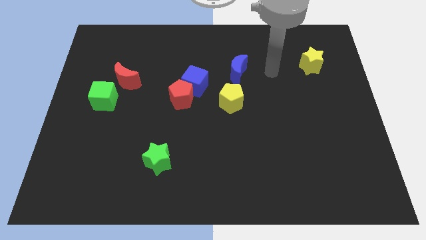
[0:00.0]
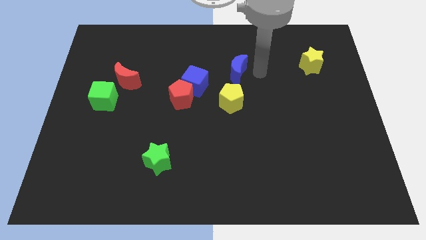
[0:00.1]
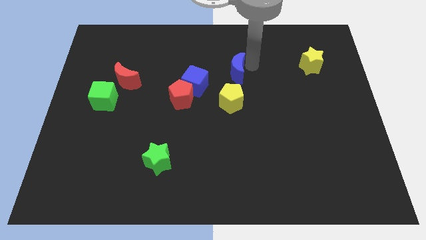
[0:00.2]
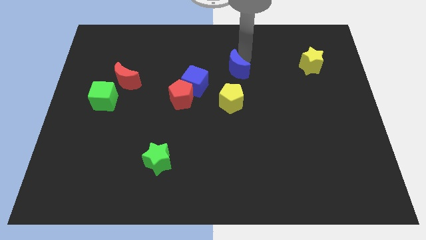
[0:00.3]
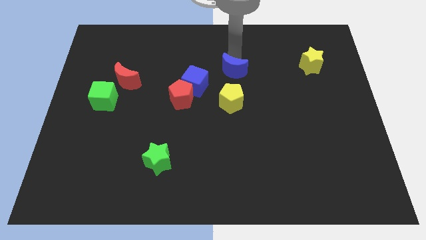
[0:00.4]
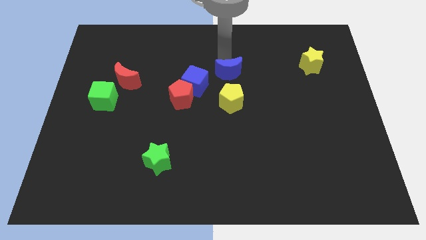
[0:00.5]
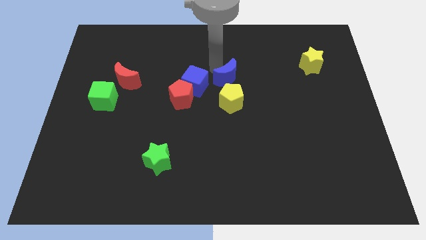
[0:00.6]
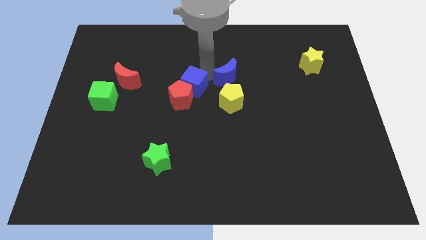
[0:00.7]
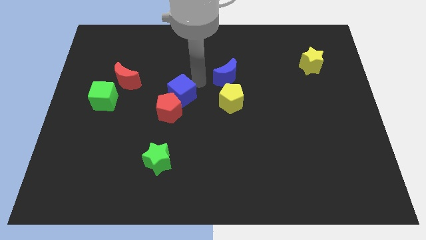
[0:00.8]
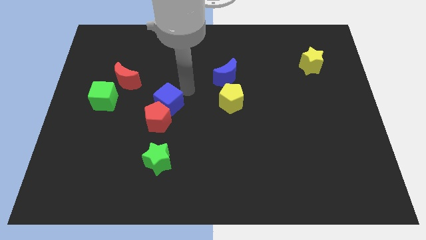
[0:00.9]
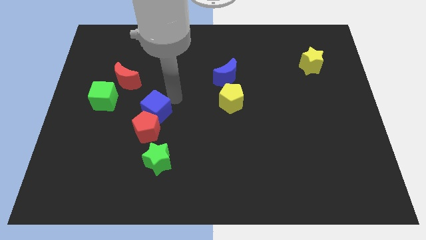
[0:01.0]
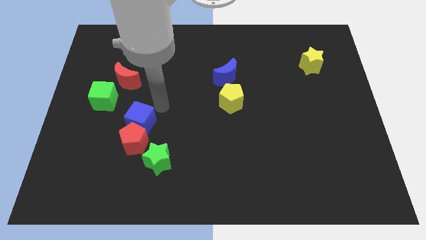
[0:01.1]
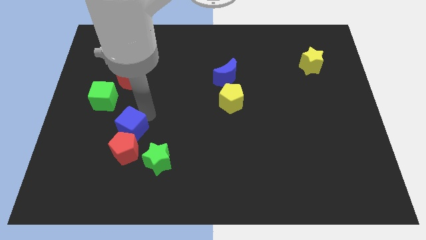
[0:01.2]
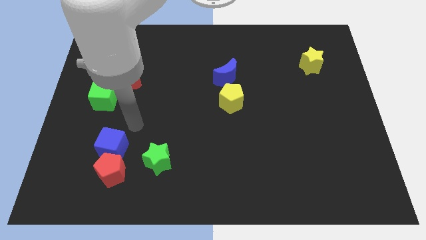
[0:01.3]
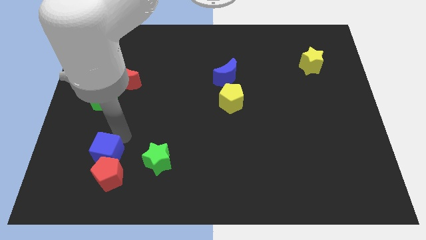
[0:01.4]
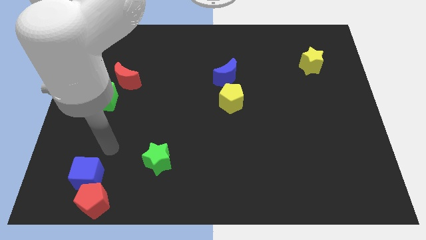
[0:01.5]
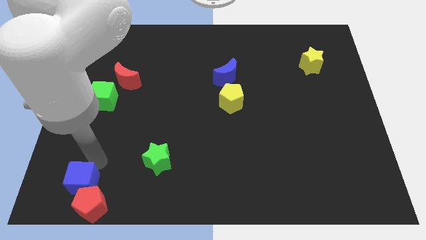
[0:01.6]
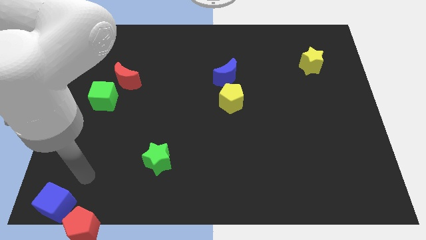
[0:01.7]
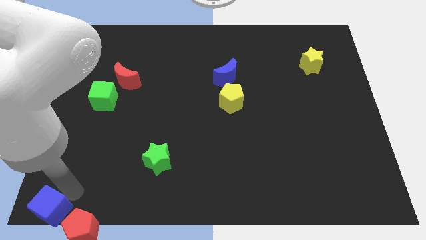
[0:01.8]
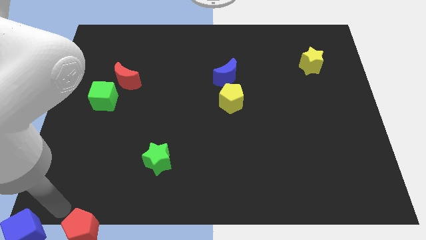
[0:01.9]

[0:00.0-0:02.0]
pull the red pentagon apart from the blue cube

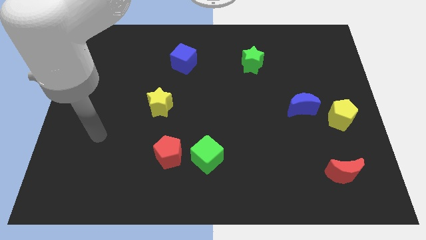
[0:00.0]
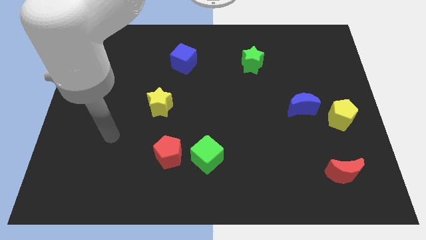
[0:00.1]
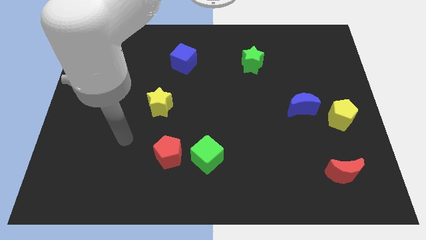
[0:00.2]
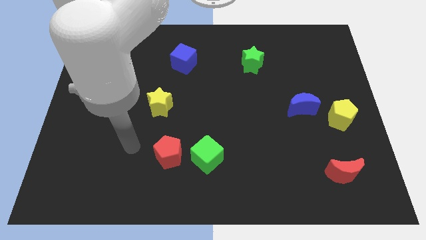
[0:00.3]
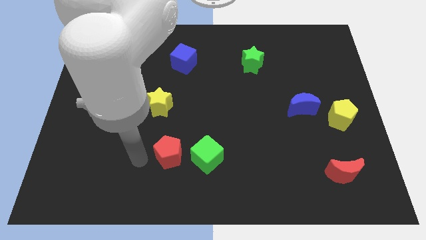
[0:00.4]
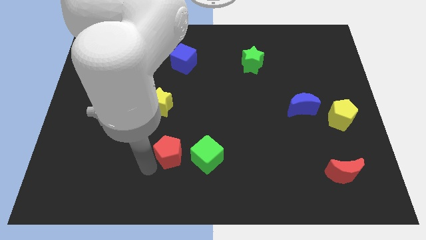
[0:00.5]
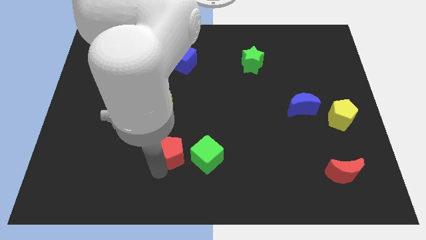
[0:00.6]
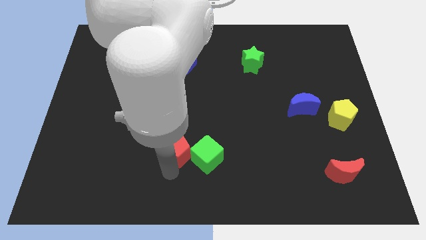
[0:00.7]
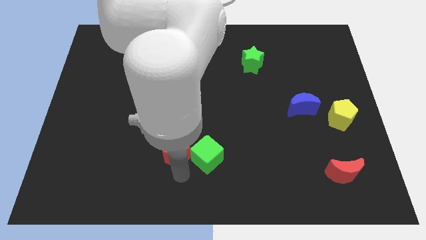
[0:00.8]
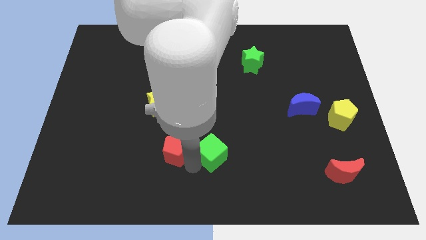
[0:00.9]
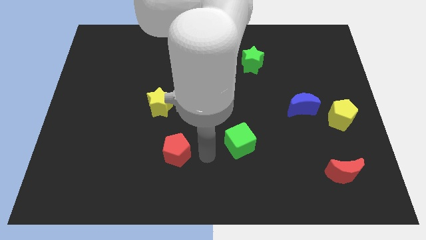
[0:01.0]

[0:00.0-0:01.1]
pull the red pentagon apart from the green cube

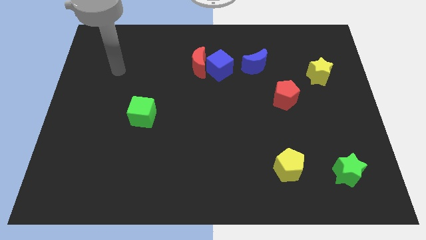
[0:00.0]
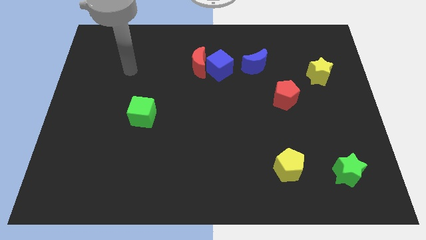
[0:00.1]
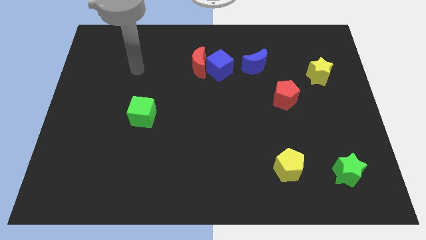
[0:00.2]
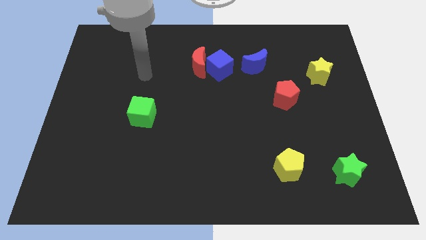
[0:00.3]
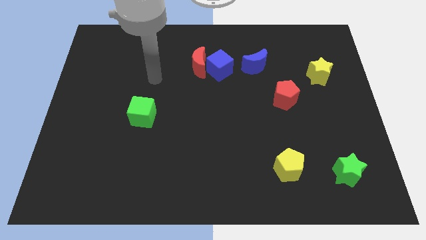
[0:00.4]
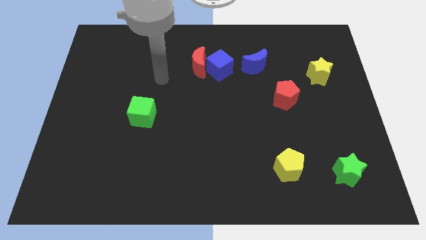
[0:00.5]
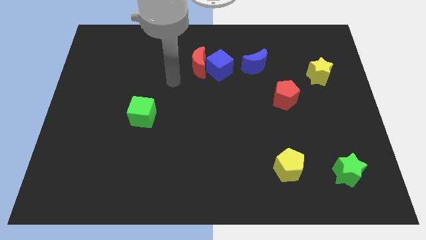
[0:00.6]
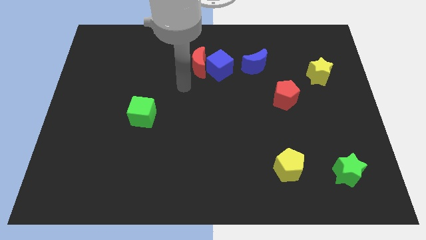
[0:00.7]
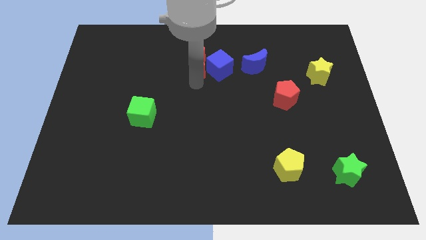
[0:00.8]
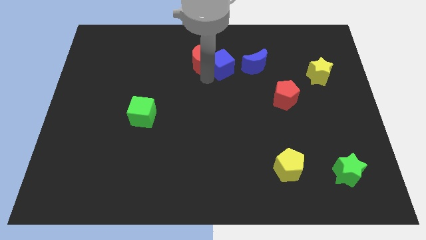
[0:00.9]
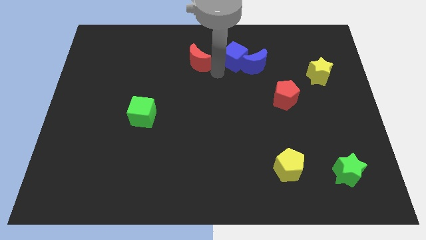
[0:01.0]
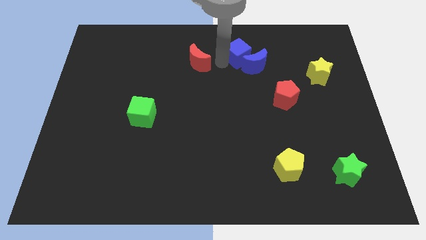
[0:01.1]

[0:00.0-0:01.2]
move the red moon away from the blue cube

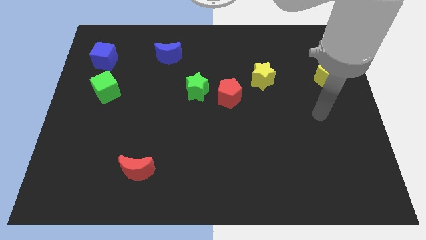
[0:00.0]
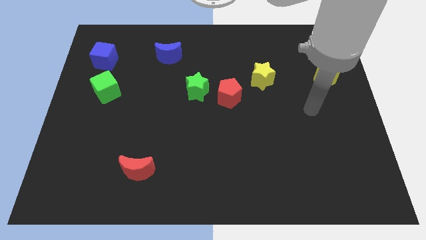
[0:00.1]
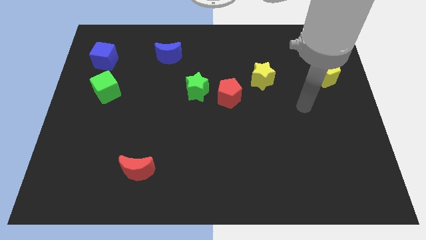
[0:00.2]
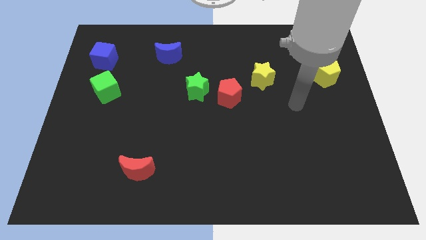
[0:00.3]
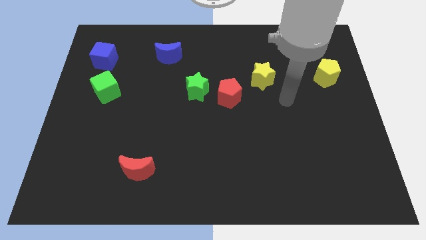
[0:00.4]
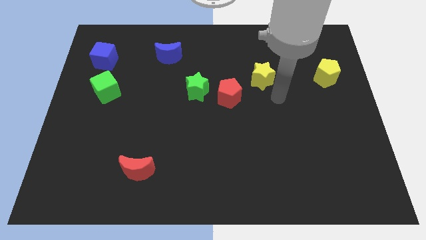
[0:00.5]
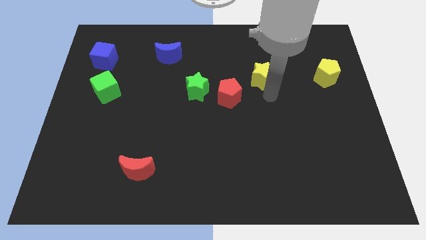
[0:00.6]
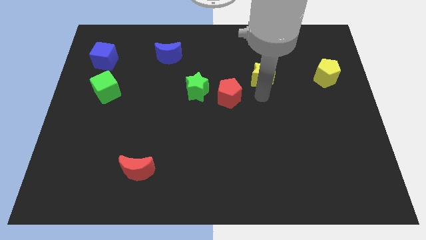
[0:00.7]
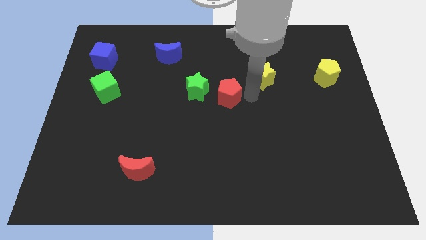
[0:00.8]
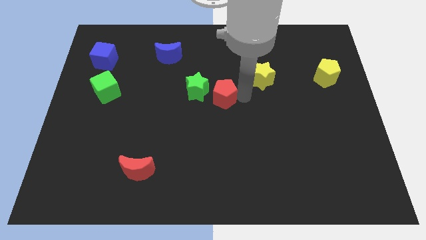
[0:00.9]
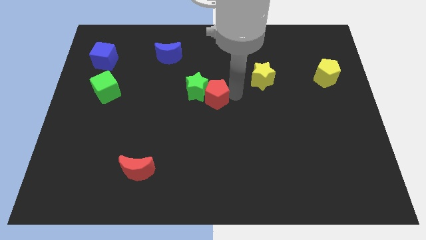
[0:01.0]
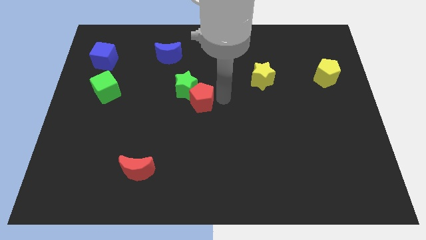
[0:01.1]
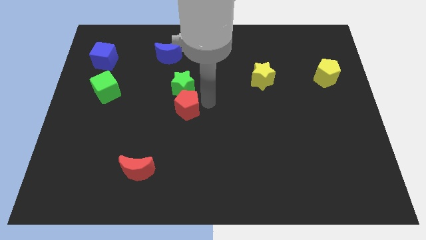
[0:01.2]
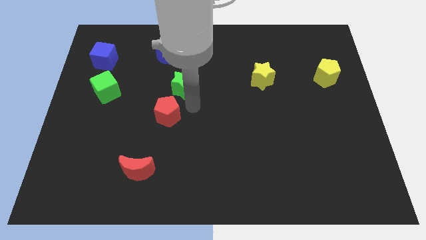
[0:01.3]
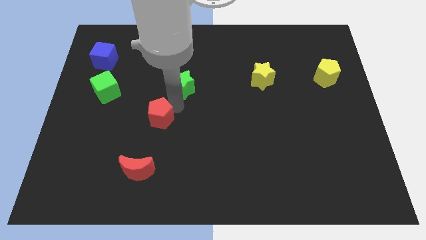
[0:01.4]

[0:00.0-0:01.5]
pull the green star apart from the red pentagon

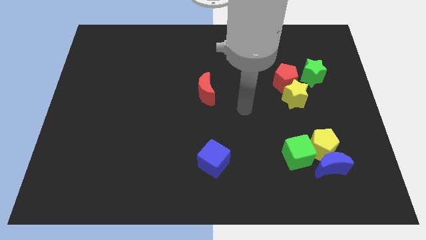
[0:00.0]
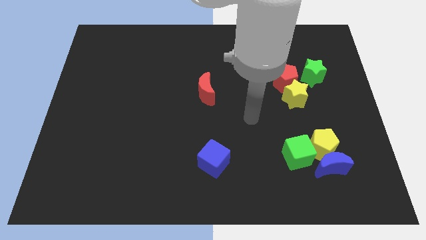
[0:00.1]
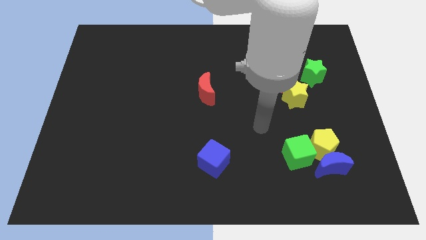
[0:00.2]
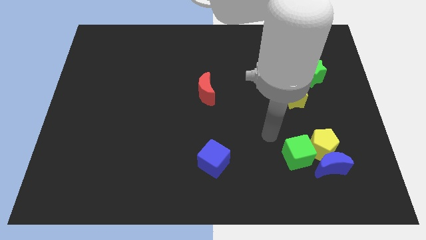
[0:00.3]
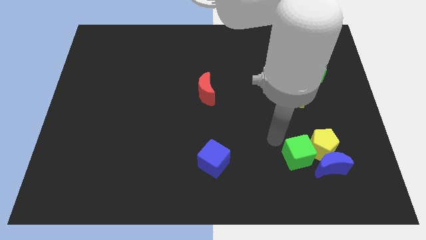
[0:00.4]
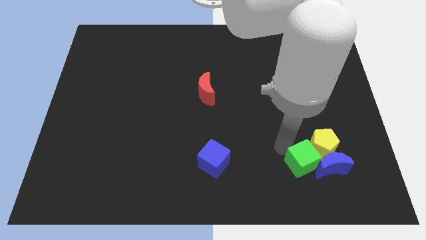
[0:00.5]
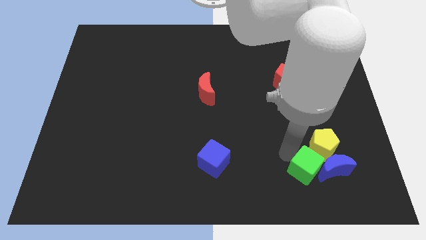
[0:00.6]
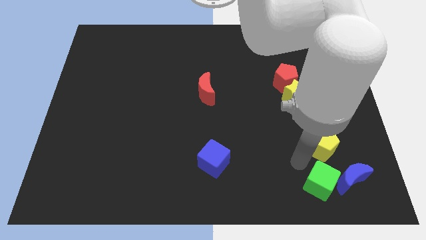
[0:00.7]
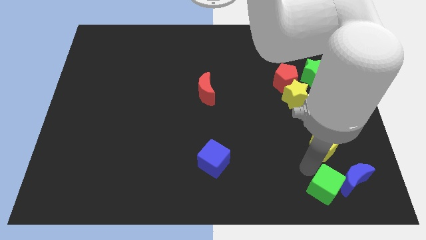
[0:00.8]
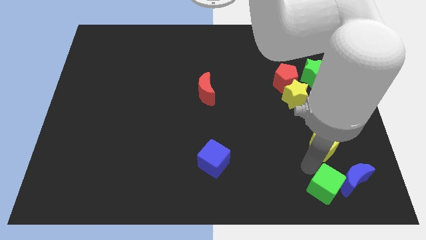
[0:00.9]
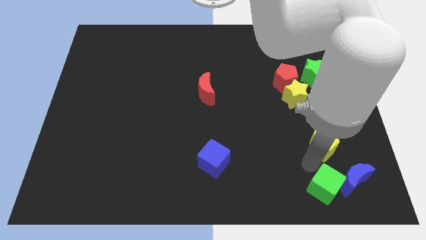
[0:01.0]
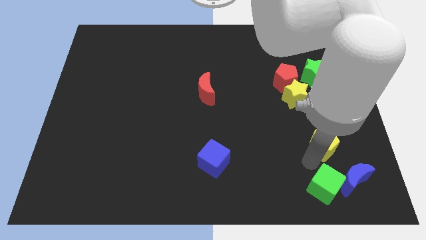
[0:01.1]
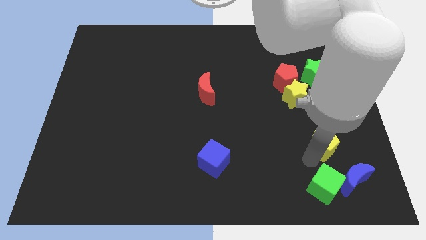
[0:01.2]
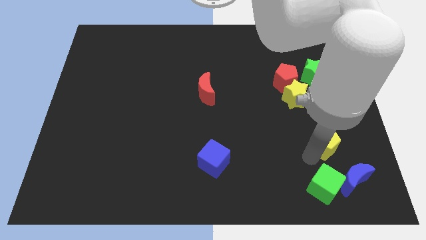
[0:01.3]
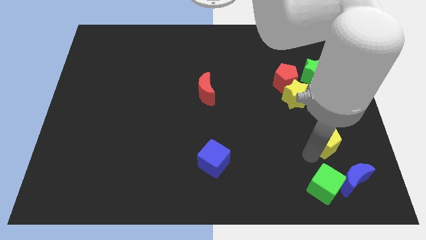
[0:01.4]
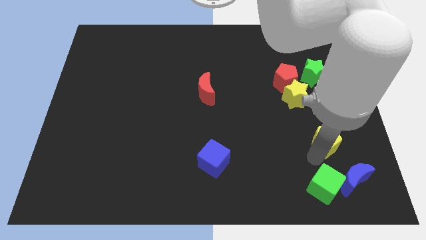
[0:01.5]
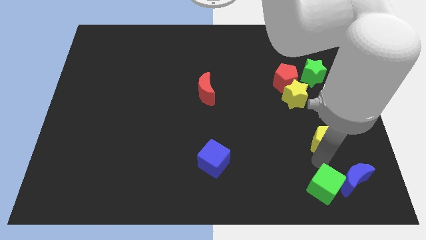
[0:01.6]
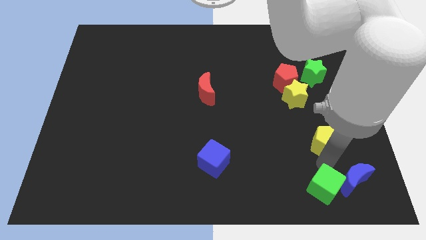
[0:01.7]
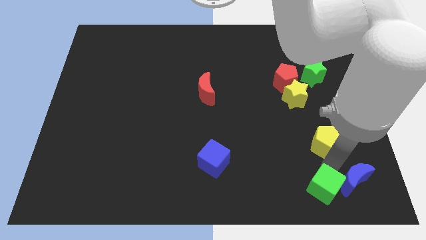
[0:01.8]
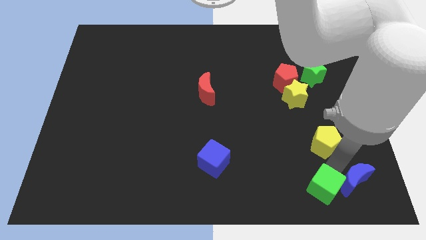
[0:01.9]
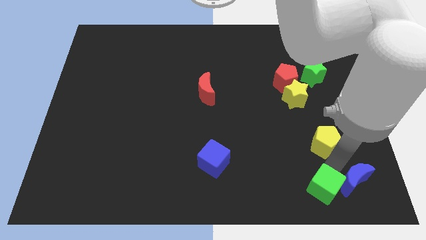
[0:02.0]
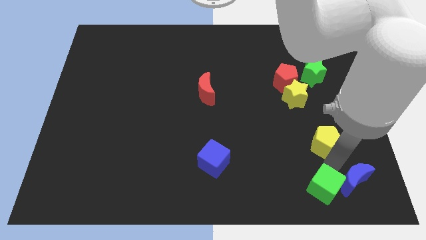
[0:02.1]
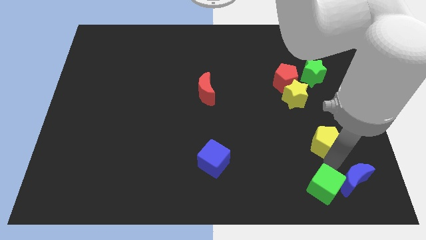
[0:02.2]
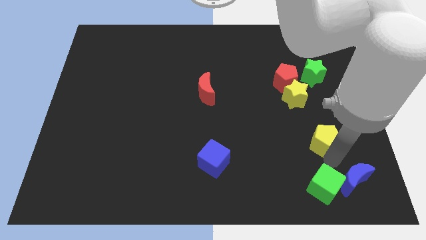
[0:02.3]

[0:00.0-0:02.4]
pull the yellow pentagon apart from the blue moon and green cube

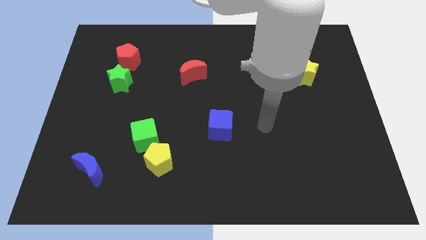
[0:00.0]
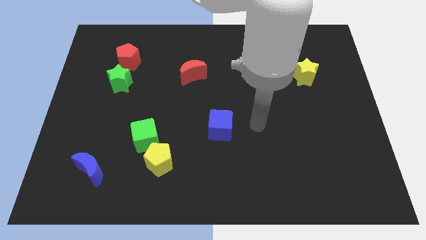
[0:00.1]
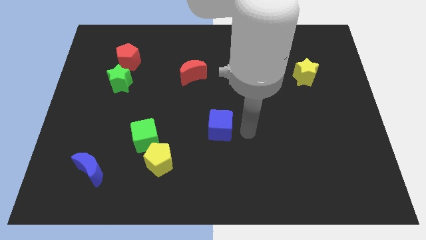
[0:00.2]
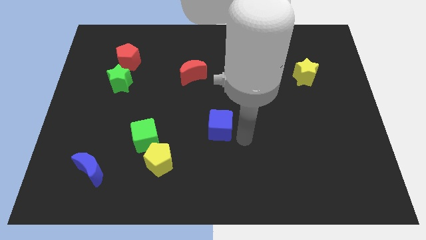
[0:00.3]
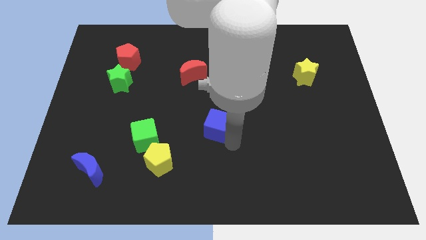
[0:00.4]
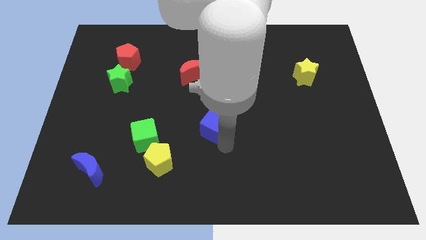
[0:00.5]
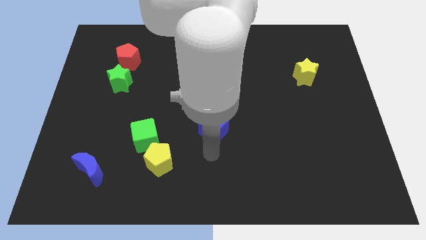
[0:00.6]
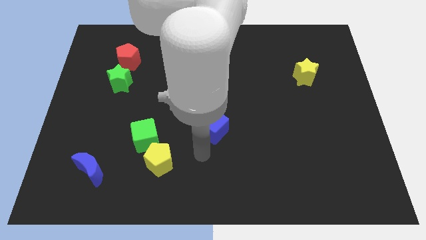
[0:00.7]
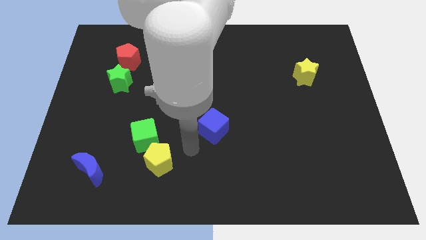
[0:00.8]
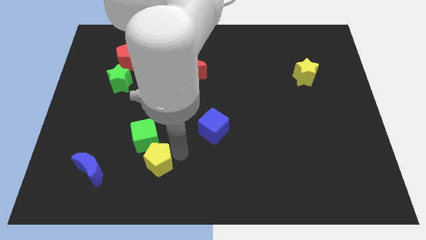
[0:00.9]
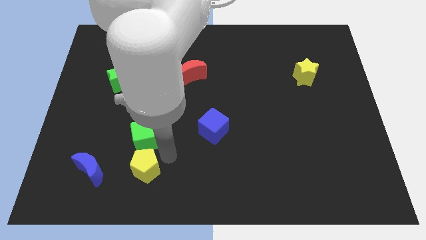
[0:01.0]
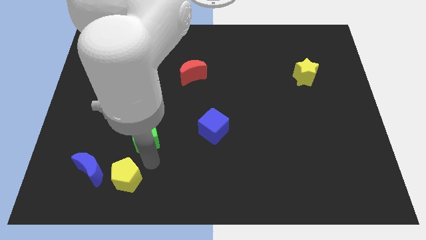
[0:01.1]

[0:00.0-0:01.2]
move the green cube away from the yellow pentagon

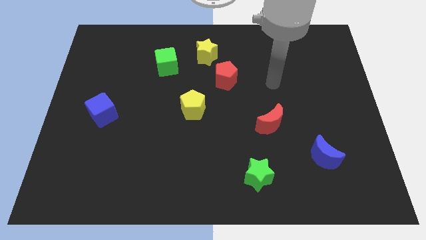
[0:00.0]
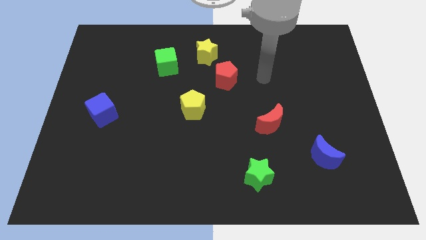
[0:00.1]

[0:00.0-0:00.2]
move the red pentagon away from the yellow star
